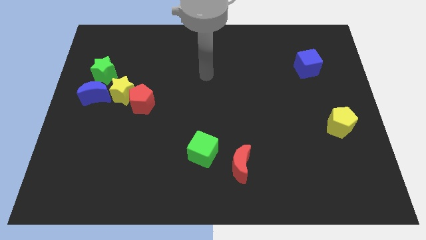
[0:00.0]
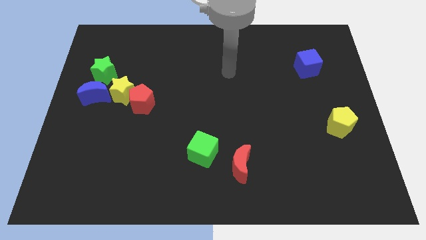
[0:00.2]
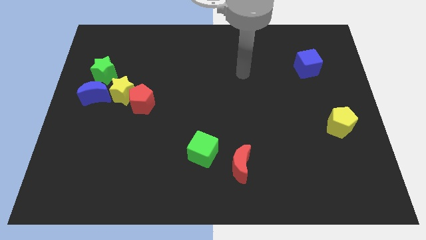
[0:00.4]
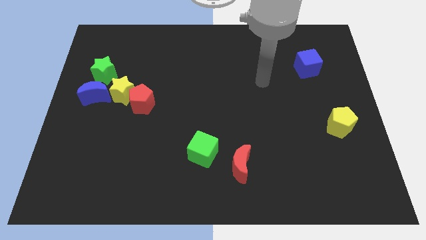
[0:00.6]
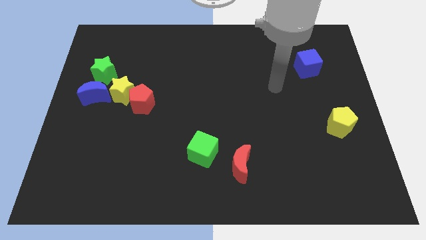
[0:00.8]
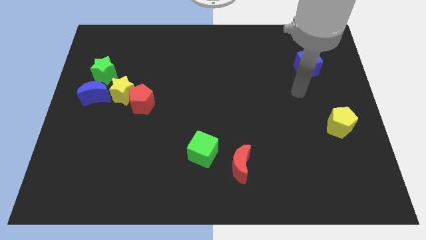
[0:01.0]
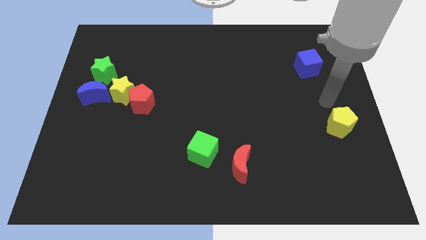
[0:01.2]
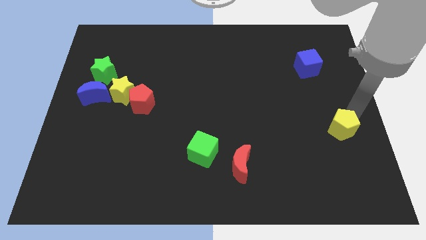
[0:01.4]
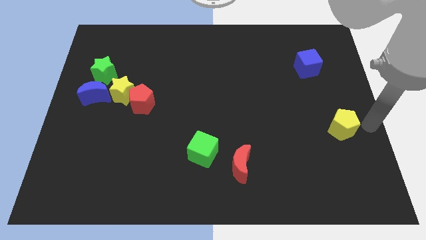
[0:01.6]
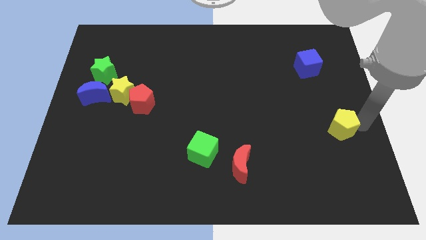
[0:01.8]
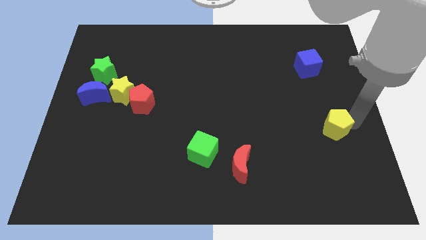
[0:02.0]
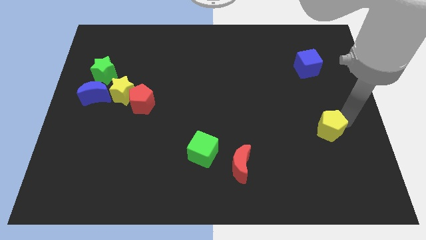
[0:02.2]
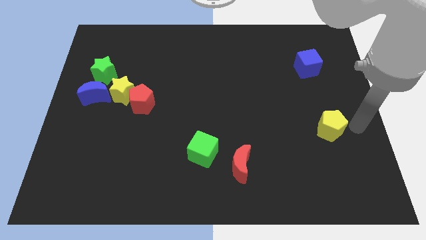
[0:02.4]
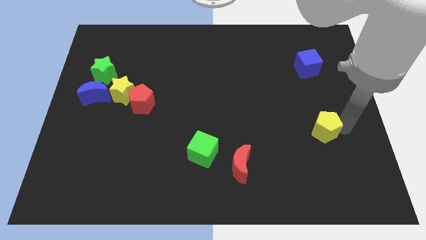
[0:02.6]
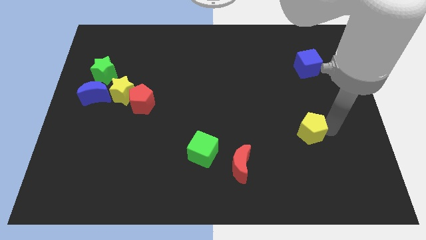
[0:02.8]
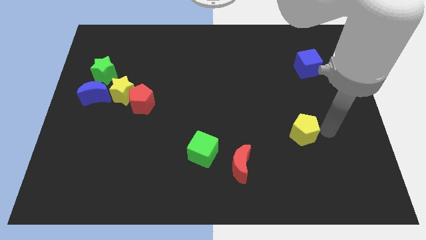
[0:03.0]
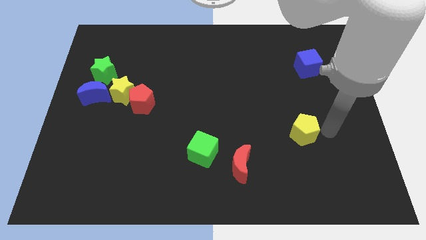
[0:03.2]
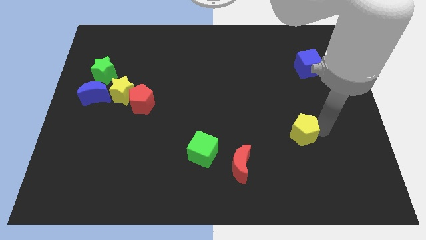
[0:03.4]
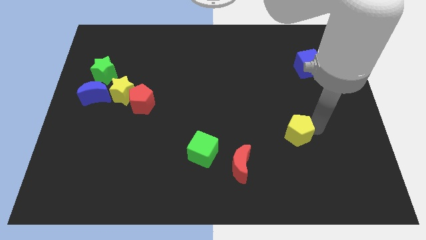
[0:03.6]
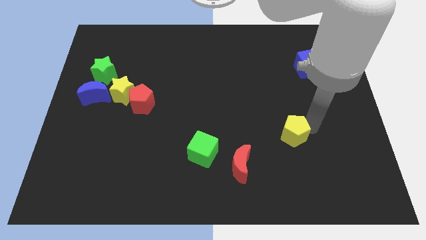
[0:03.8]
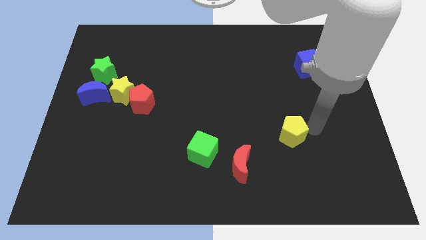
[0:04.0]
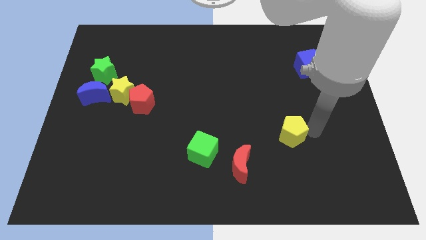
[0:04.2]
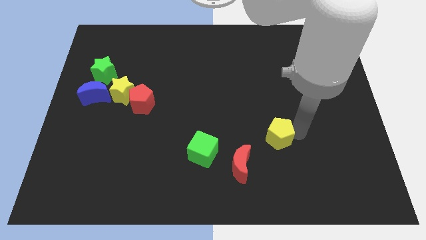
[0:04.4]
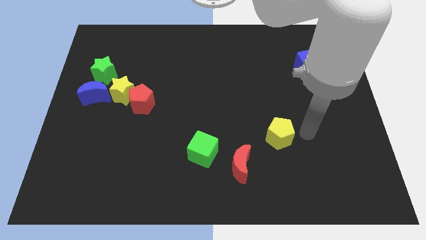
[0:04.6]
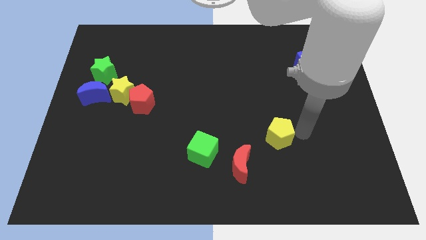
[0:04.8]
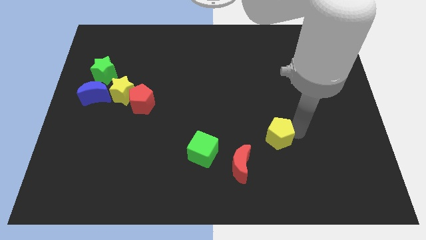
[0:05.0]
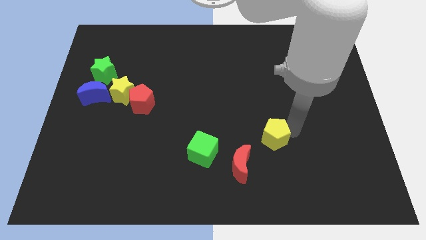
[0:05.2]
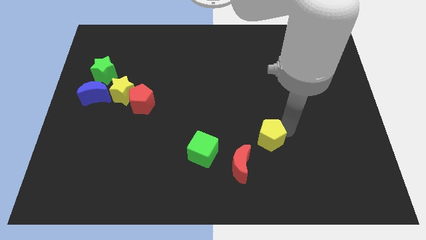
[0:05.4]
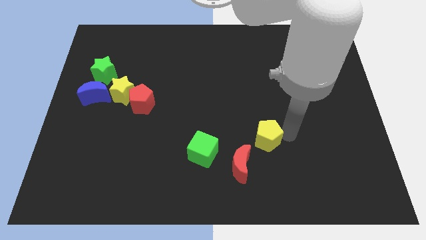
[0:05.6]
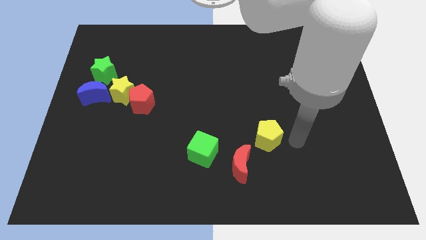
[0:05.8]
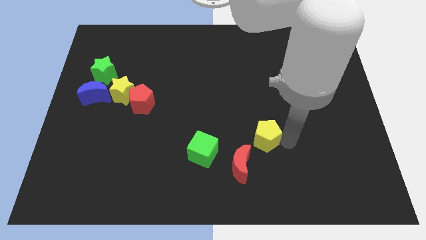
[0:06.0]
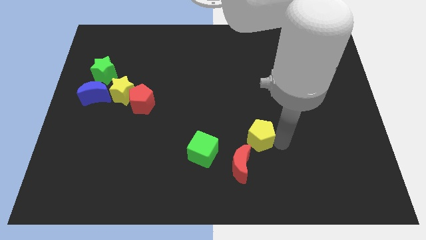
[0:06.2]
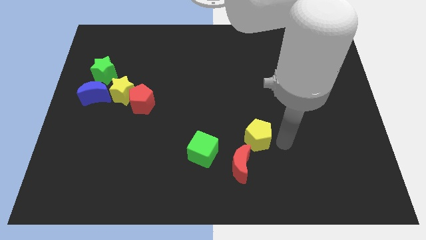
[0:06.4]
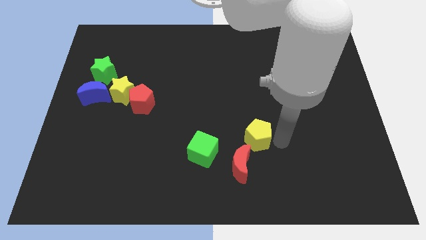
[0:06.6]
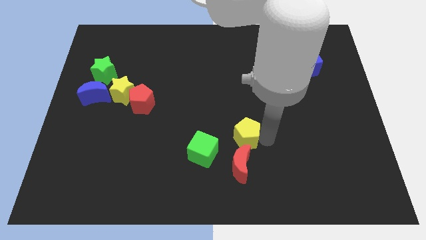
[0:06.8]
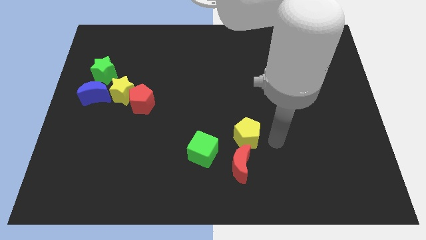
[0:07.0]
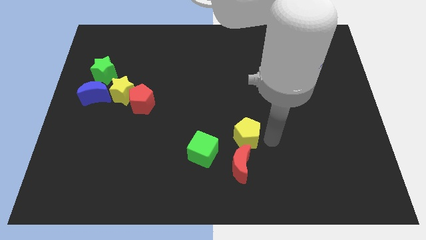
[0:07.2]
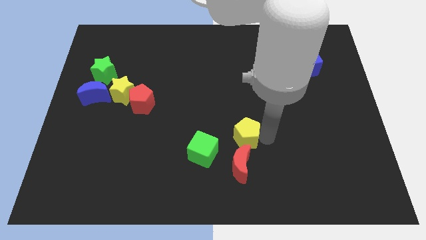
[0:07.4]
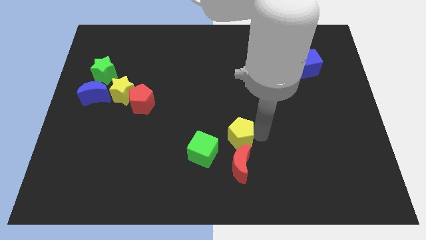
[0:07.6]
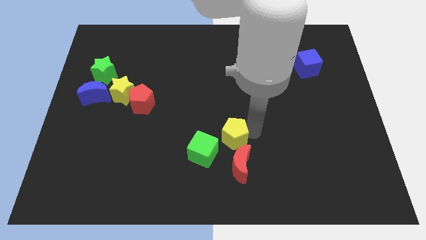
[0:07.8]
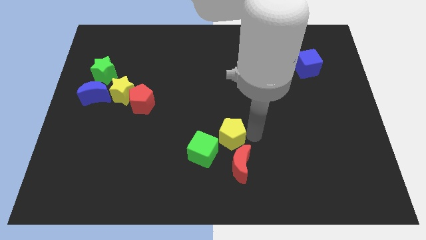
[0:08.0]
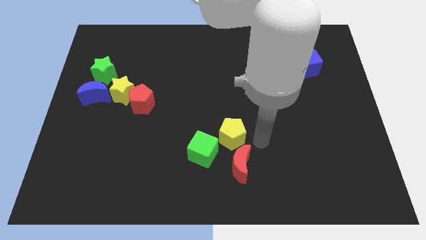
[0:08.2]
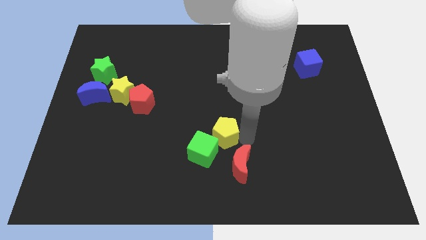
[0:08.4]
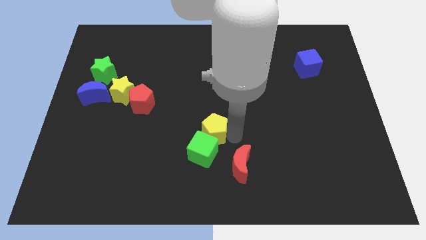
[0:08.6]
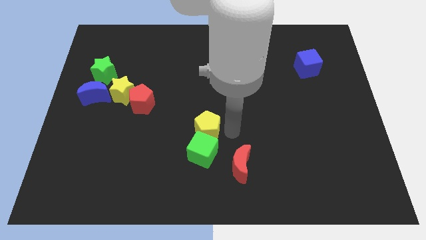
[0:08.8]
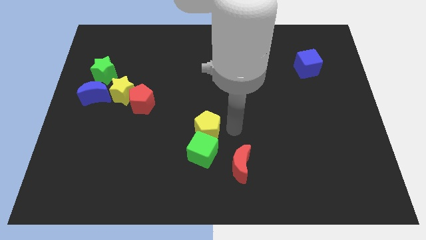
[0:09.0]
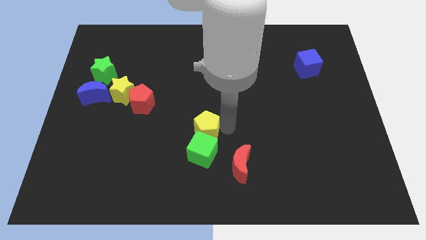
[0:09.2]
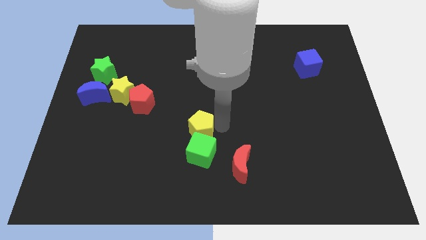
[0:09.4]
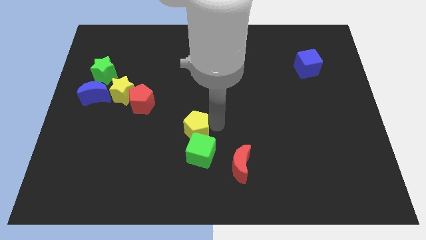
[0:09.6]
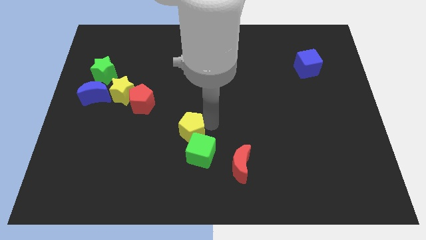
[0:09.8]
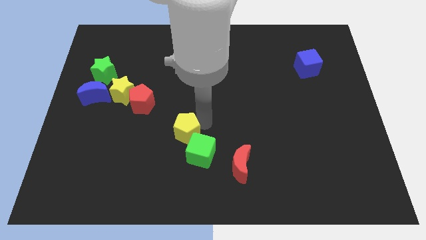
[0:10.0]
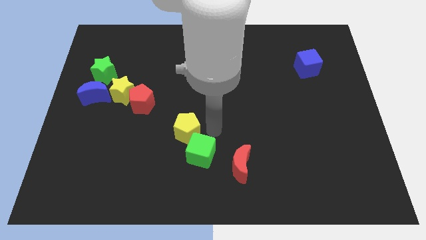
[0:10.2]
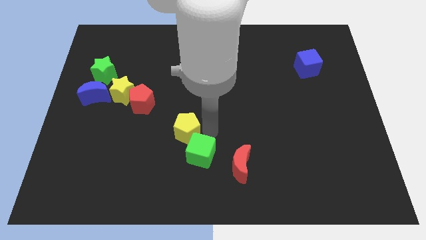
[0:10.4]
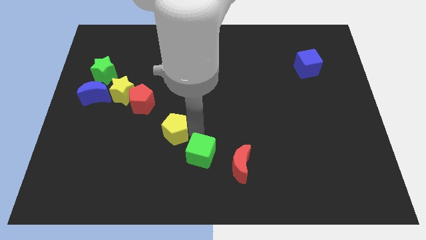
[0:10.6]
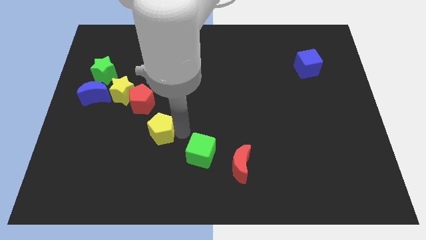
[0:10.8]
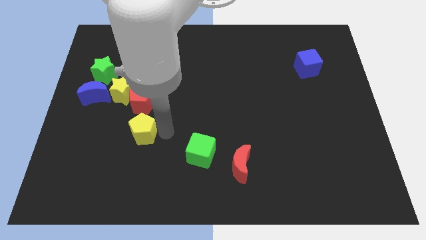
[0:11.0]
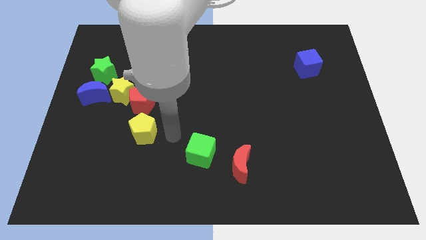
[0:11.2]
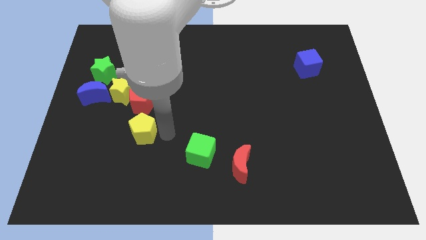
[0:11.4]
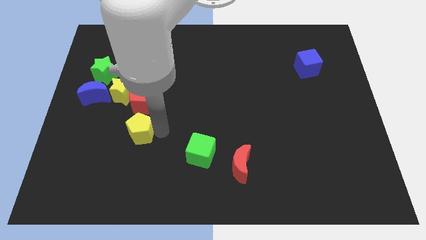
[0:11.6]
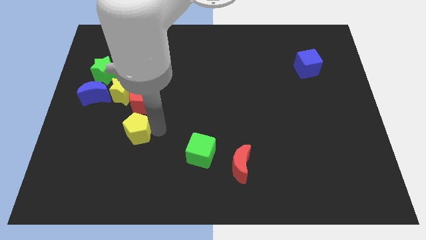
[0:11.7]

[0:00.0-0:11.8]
move the yellow pentagon below the yellow star

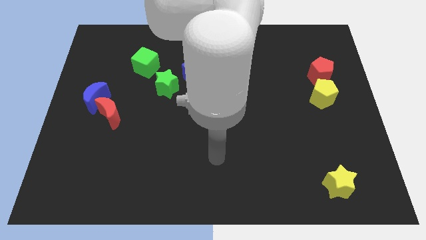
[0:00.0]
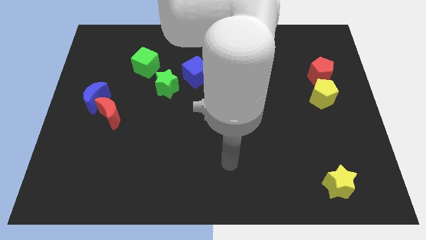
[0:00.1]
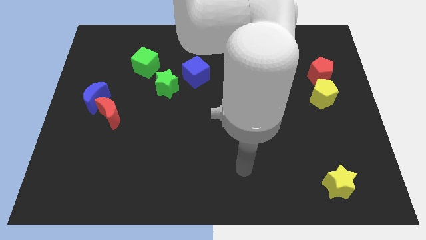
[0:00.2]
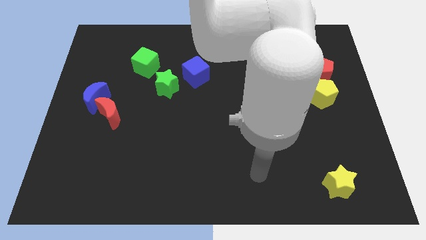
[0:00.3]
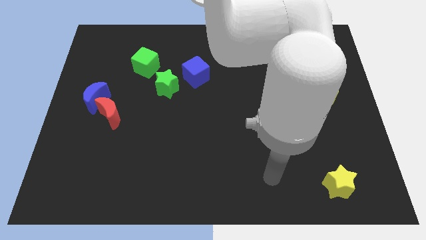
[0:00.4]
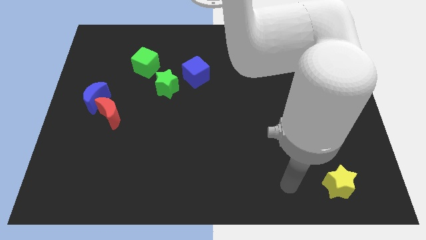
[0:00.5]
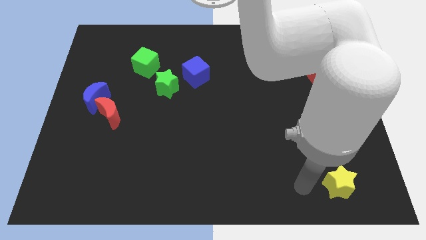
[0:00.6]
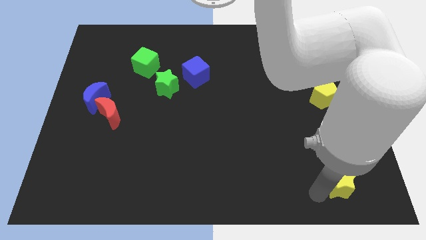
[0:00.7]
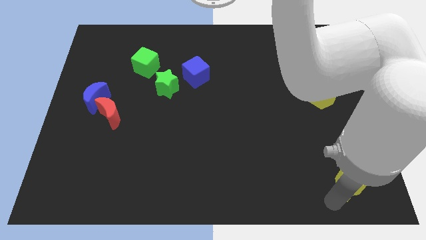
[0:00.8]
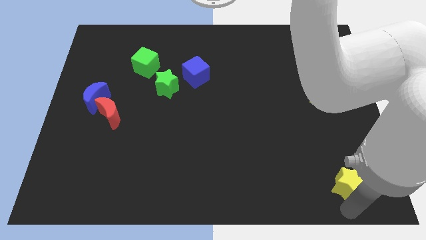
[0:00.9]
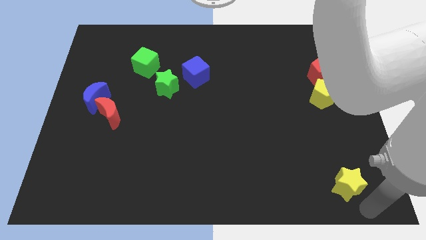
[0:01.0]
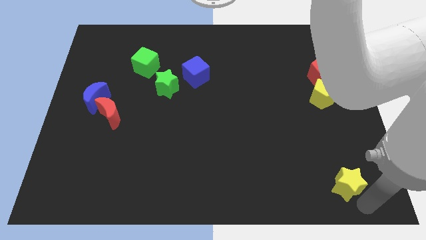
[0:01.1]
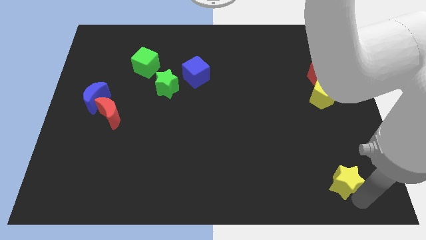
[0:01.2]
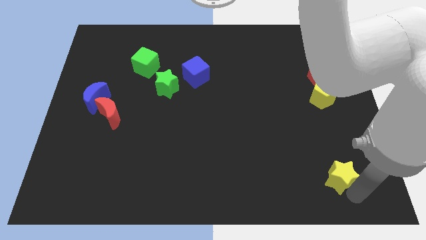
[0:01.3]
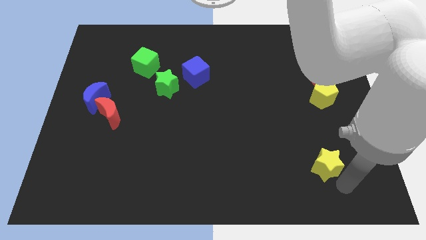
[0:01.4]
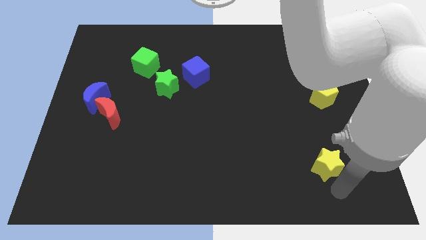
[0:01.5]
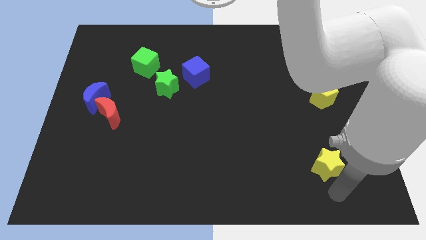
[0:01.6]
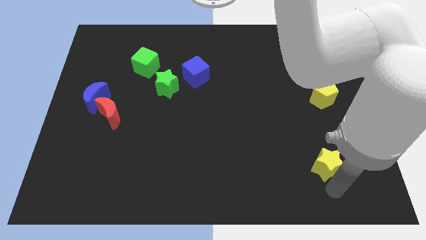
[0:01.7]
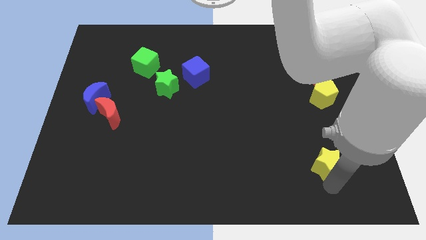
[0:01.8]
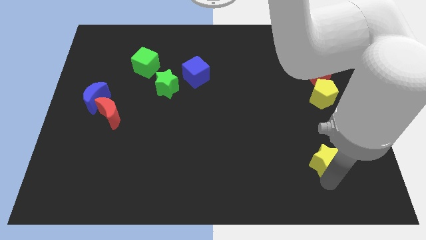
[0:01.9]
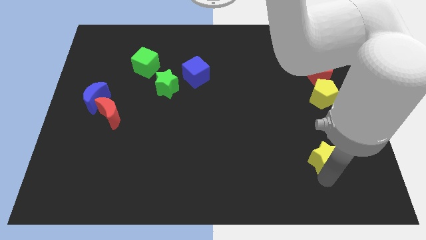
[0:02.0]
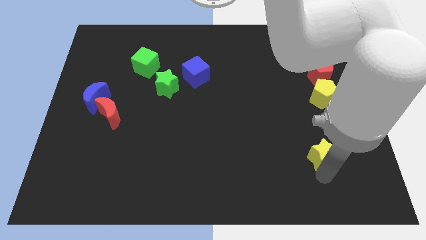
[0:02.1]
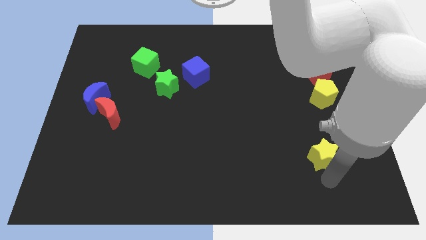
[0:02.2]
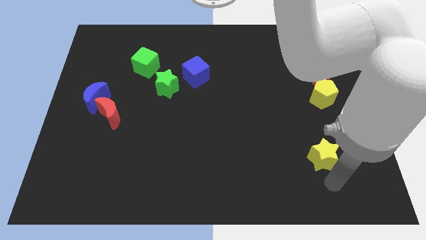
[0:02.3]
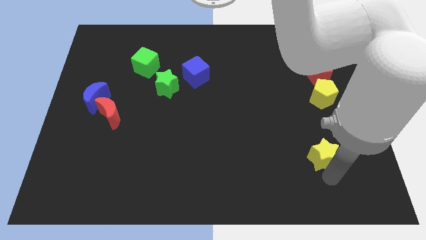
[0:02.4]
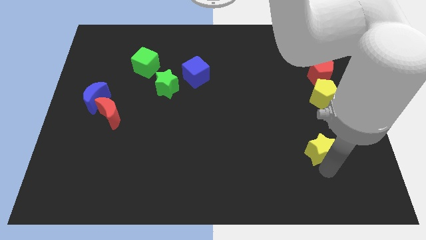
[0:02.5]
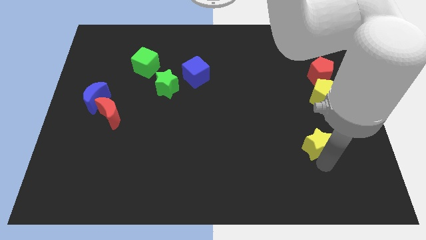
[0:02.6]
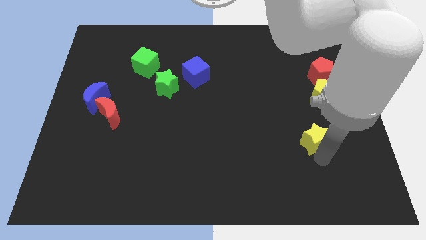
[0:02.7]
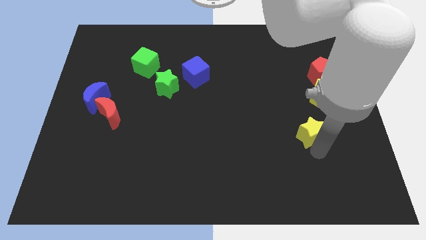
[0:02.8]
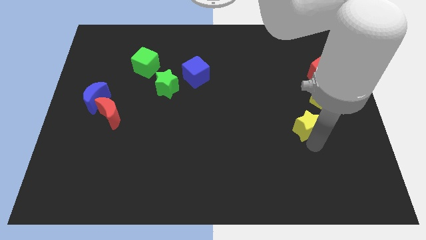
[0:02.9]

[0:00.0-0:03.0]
move the yellow star diagonally down and to the left of the yellow pentagon
